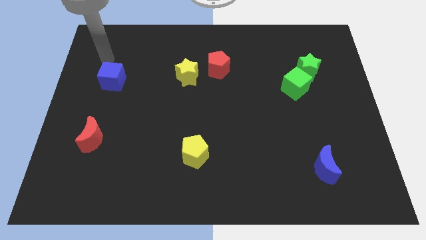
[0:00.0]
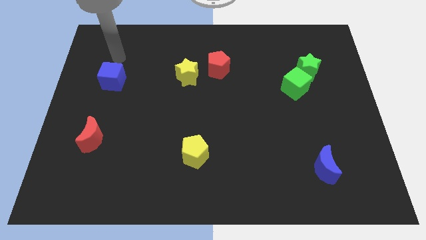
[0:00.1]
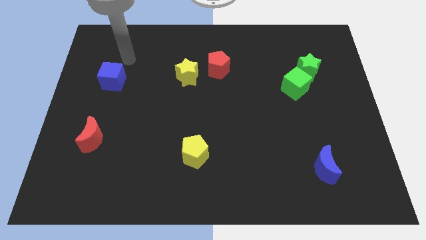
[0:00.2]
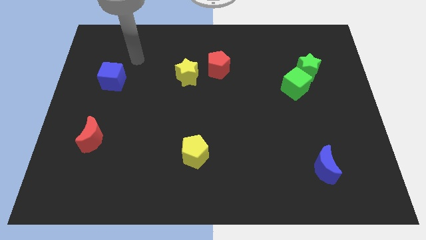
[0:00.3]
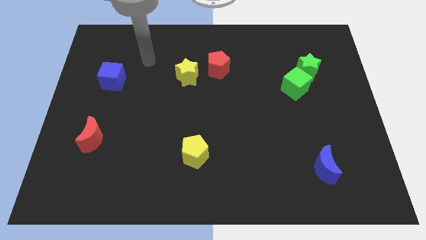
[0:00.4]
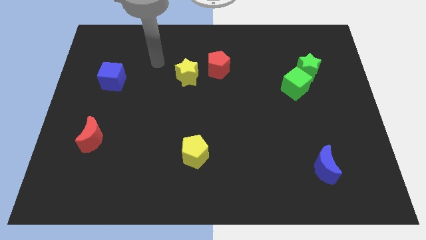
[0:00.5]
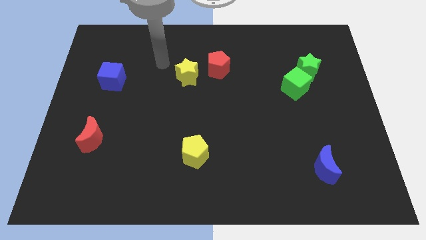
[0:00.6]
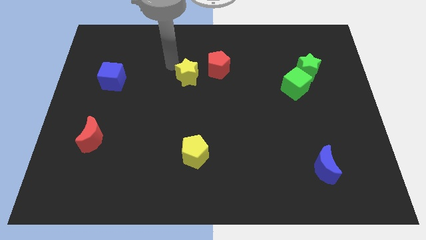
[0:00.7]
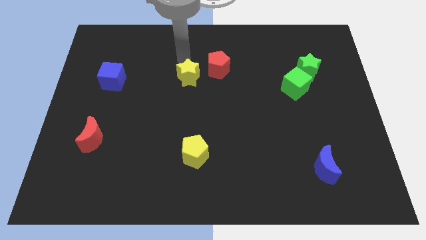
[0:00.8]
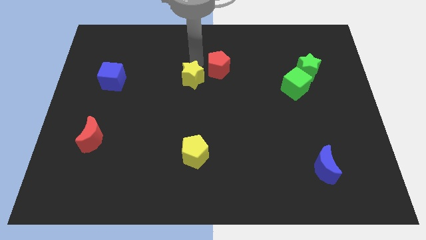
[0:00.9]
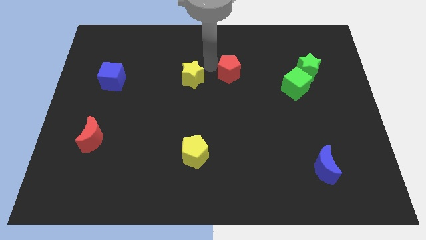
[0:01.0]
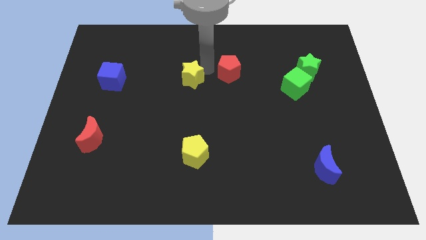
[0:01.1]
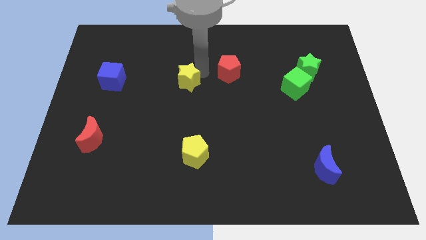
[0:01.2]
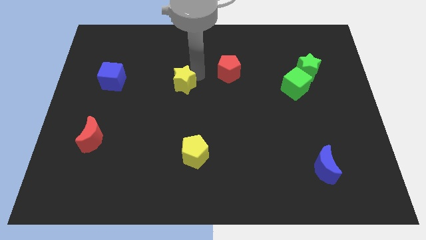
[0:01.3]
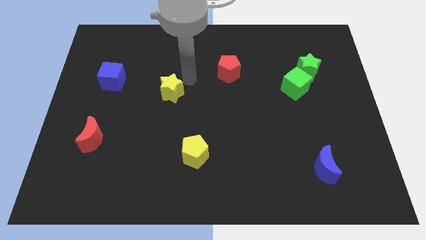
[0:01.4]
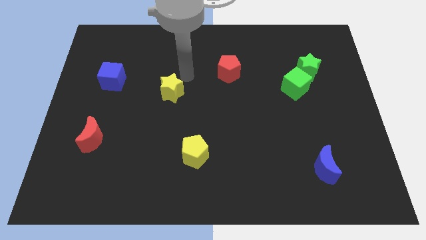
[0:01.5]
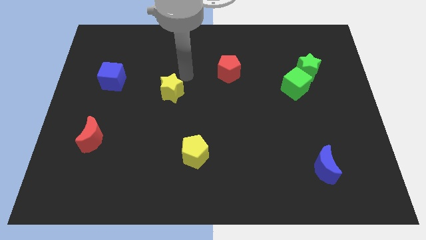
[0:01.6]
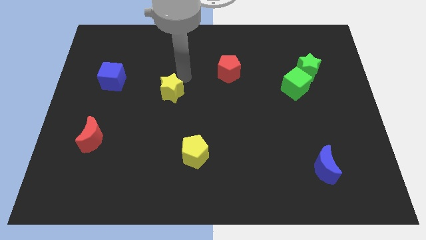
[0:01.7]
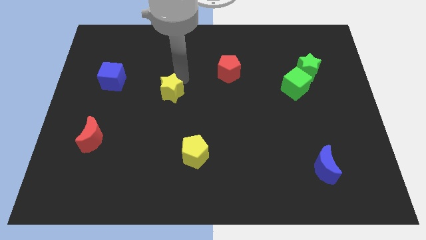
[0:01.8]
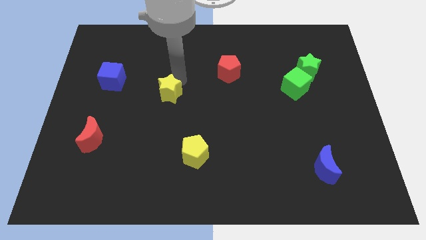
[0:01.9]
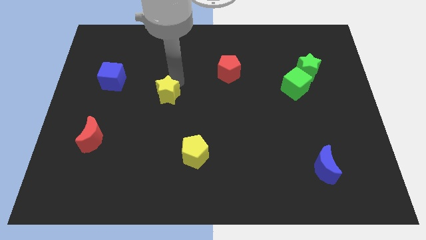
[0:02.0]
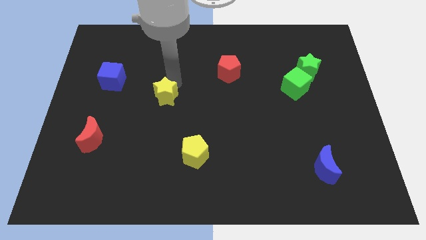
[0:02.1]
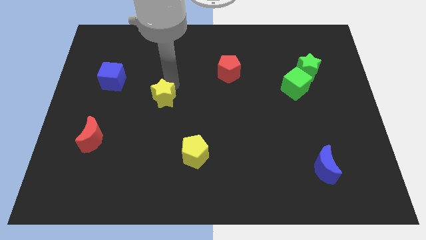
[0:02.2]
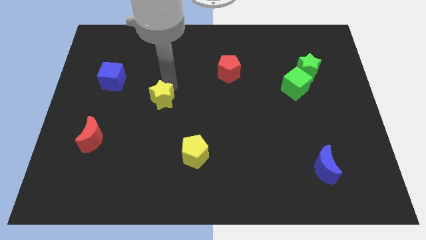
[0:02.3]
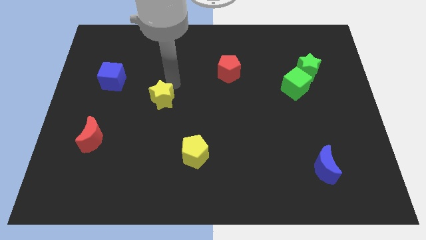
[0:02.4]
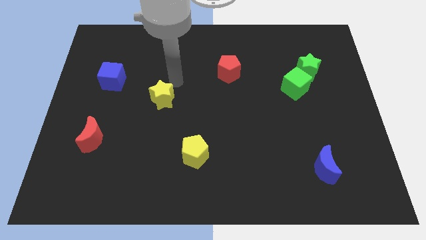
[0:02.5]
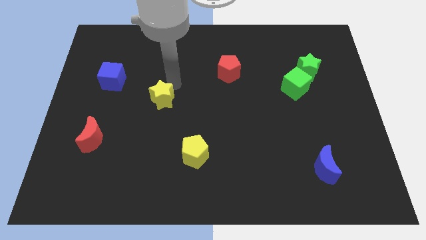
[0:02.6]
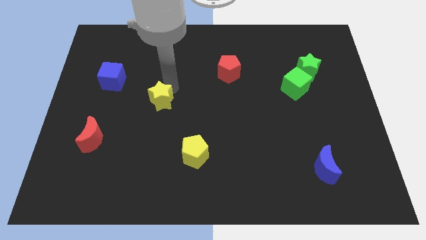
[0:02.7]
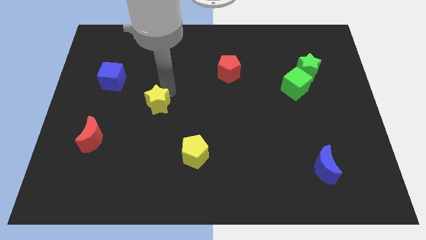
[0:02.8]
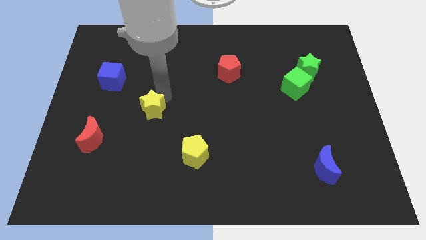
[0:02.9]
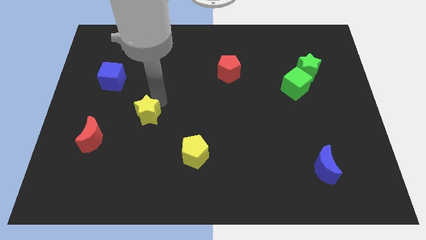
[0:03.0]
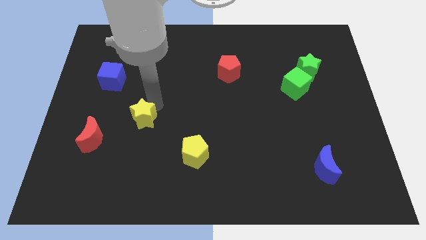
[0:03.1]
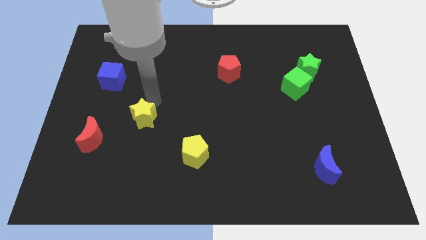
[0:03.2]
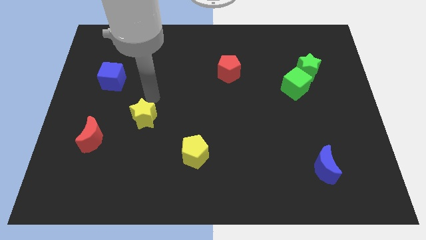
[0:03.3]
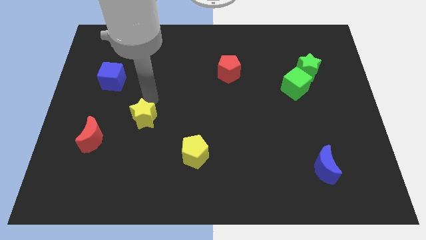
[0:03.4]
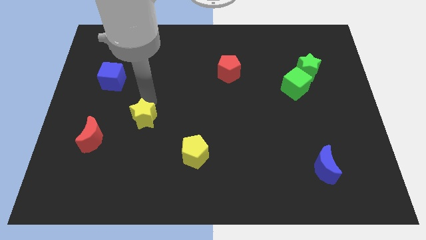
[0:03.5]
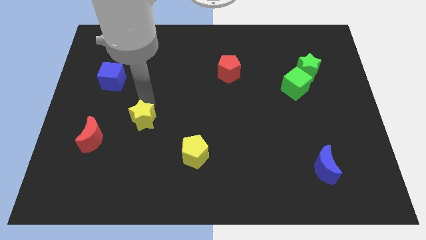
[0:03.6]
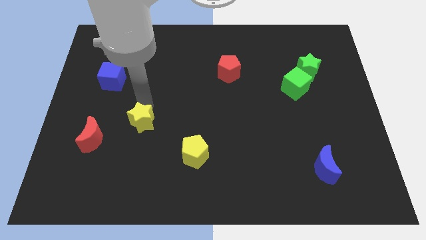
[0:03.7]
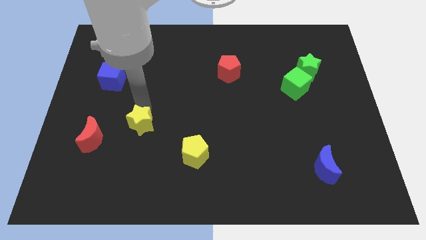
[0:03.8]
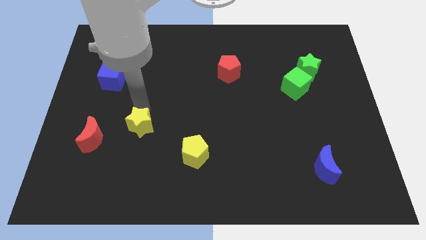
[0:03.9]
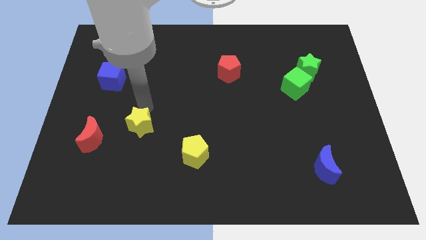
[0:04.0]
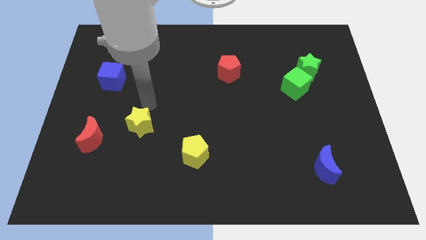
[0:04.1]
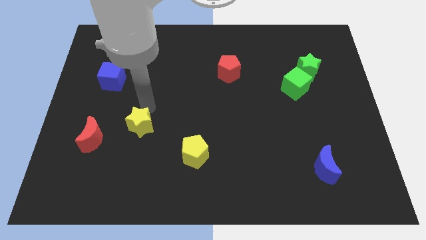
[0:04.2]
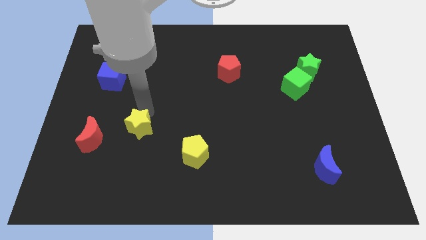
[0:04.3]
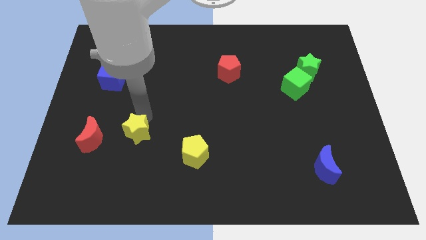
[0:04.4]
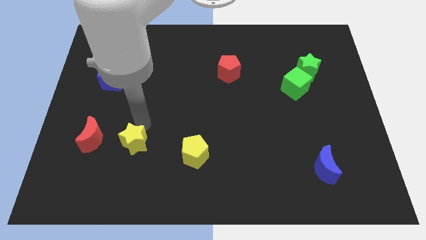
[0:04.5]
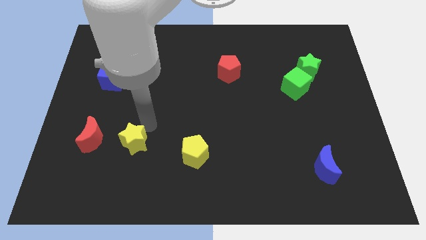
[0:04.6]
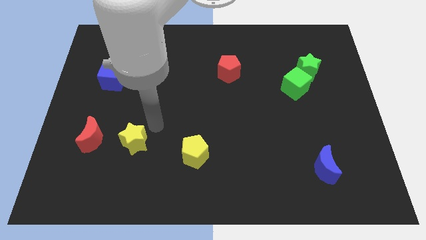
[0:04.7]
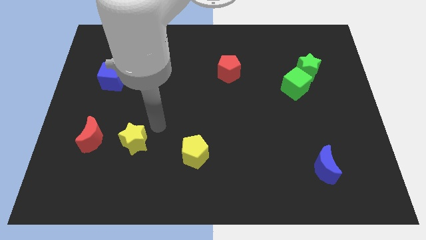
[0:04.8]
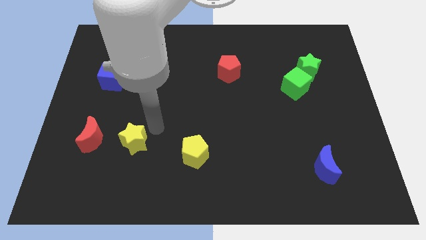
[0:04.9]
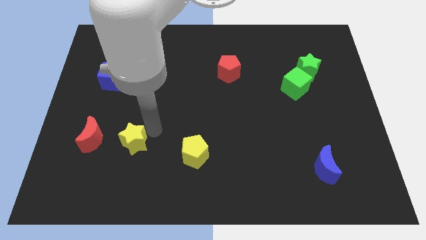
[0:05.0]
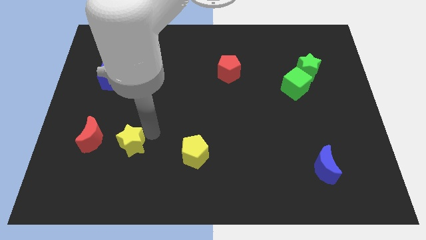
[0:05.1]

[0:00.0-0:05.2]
put the yellow star diagonally down and to the right of the red moon

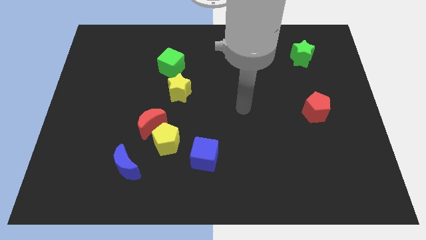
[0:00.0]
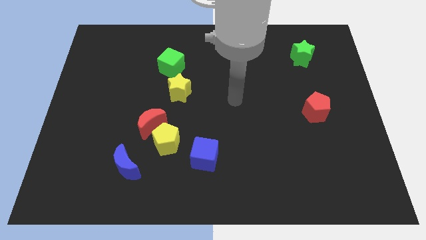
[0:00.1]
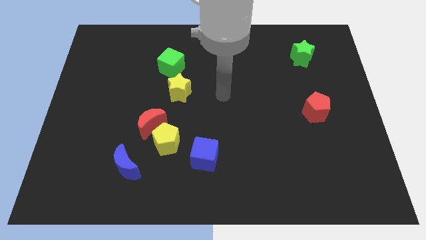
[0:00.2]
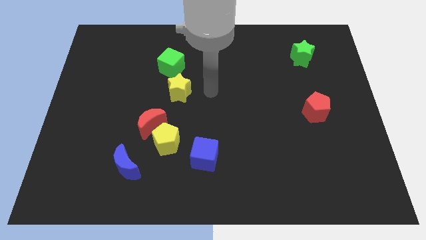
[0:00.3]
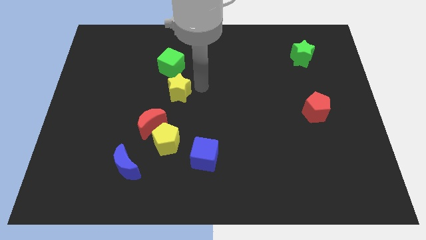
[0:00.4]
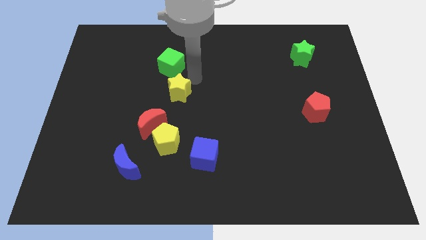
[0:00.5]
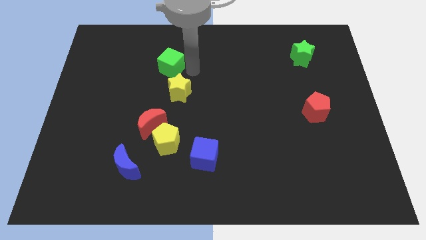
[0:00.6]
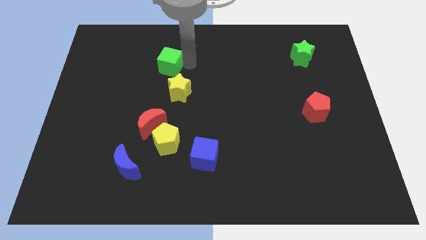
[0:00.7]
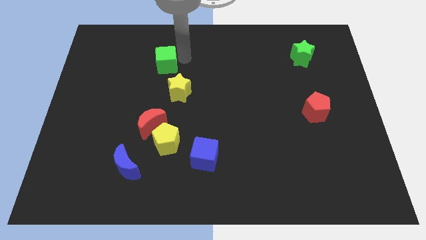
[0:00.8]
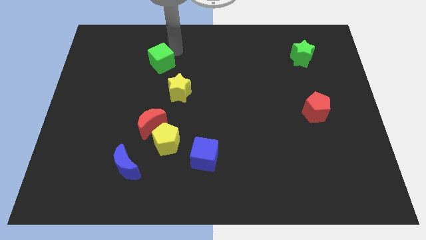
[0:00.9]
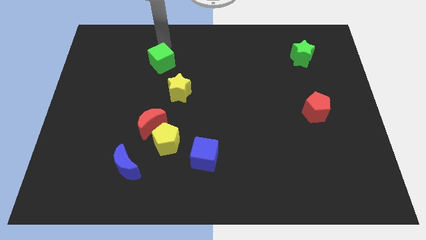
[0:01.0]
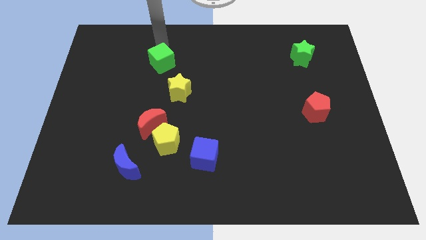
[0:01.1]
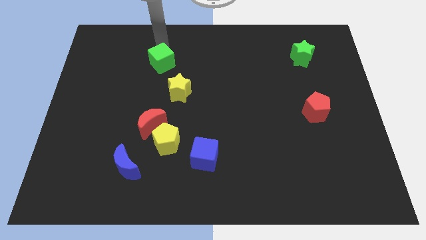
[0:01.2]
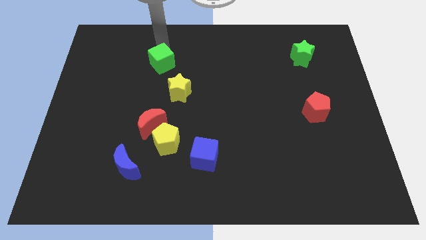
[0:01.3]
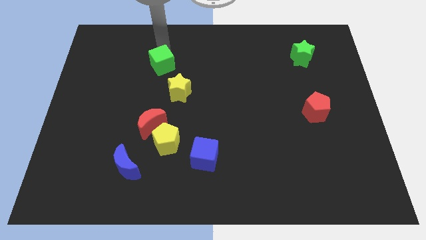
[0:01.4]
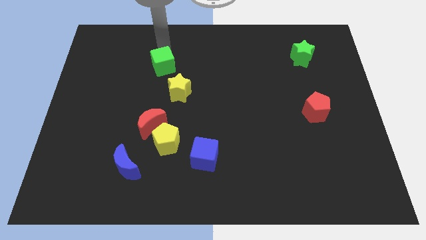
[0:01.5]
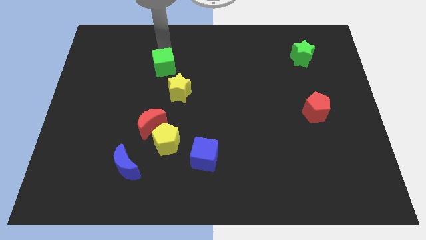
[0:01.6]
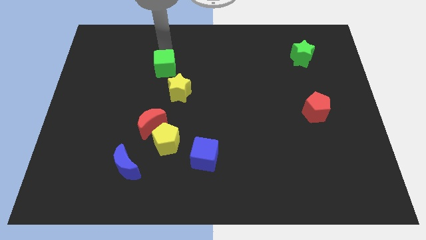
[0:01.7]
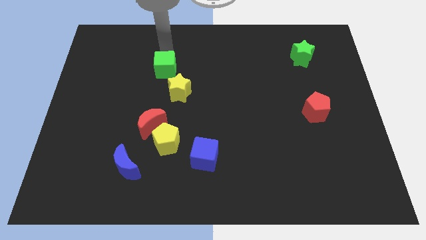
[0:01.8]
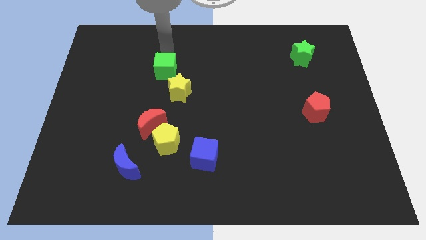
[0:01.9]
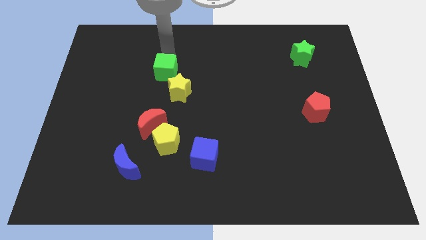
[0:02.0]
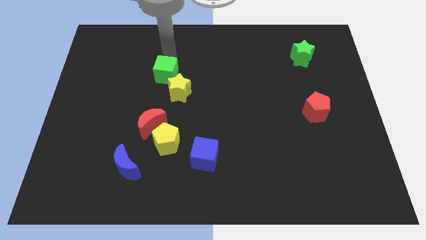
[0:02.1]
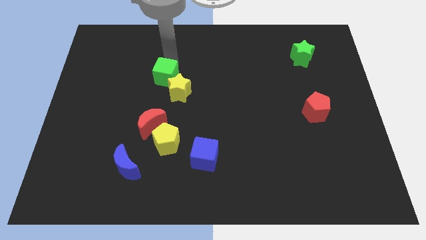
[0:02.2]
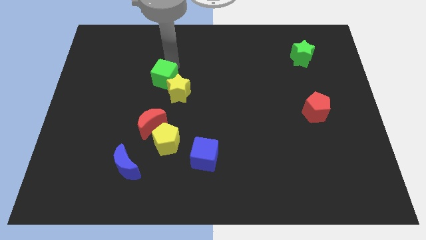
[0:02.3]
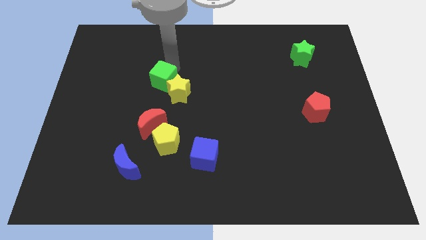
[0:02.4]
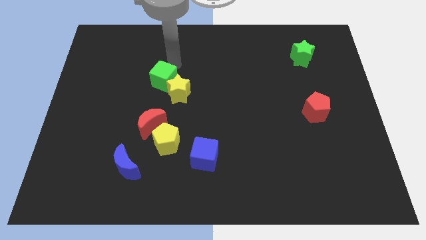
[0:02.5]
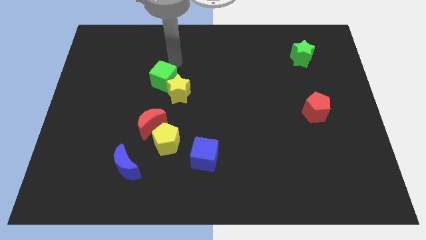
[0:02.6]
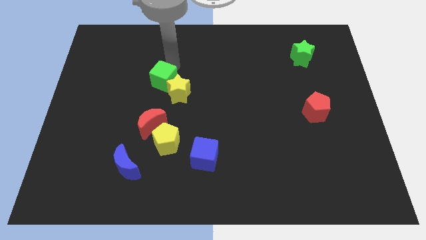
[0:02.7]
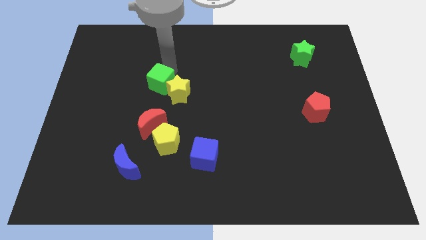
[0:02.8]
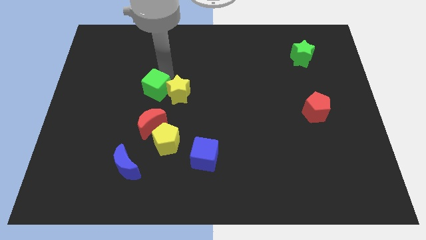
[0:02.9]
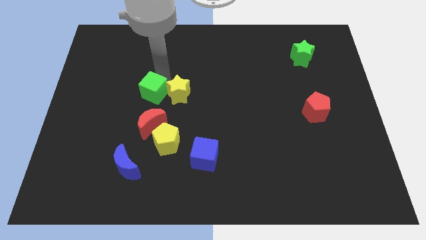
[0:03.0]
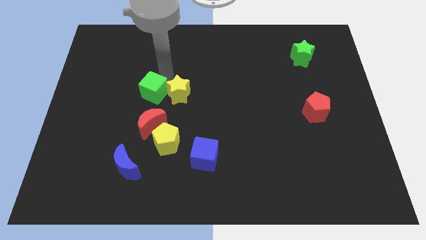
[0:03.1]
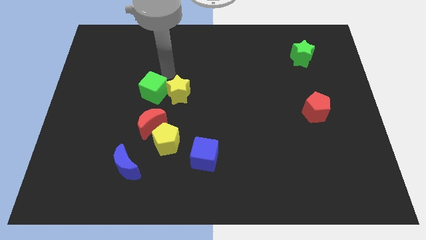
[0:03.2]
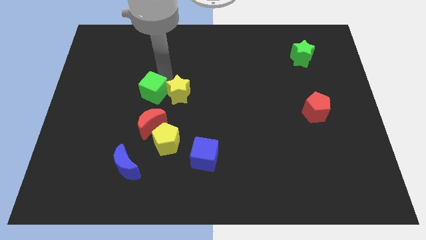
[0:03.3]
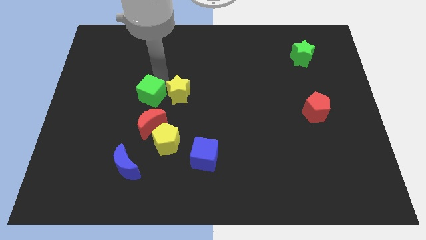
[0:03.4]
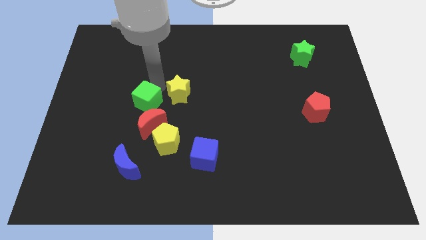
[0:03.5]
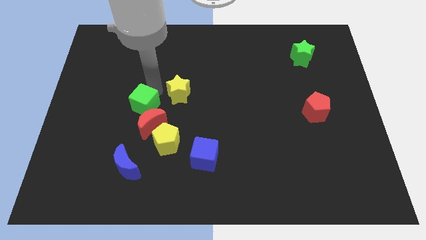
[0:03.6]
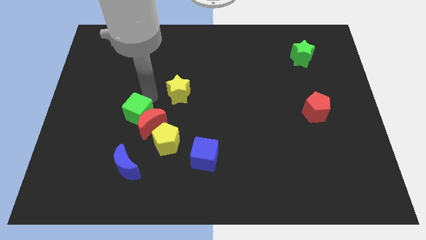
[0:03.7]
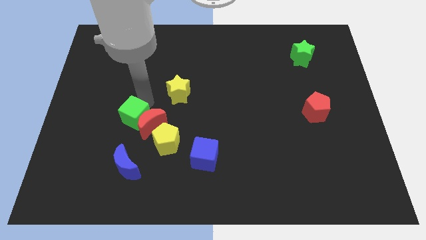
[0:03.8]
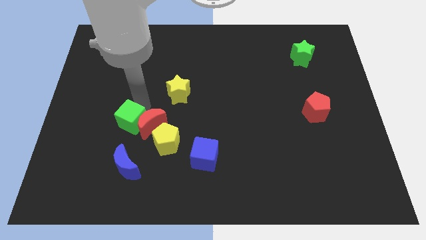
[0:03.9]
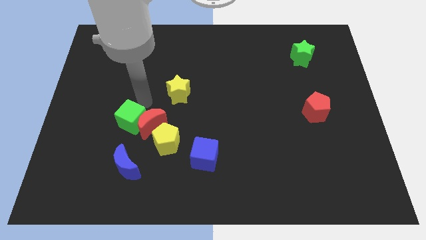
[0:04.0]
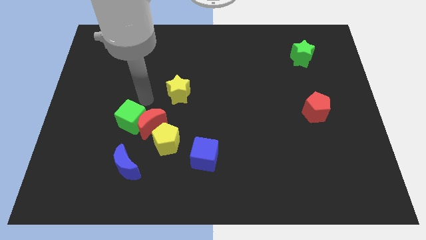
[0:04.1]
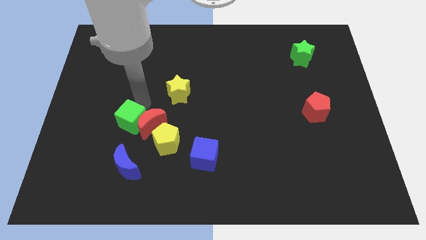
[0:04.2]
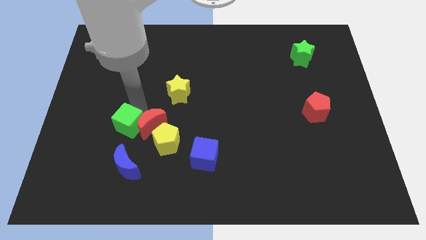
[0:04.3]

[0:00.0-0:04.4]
slide the green cube to the left of the yellow pentagon
